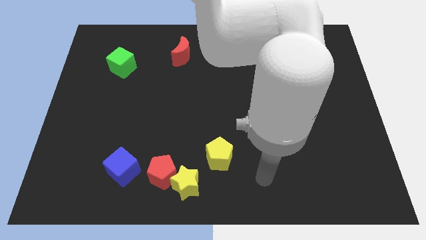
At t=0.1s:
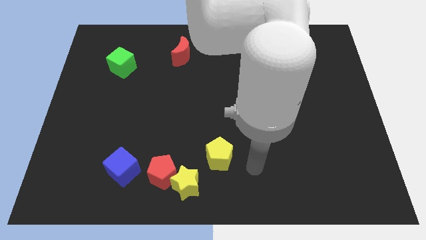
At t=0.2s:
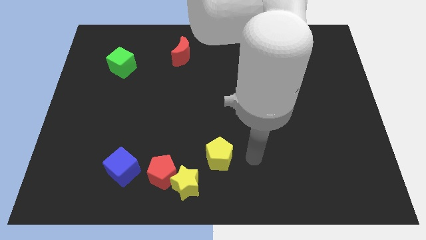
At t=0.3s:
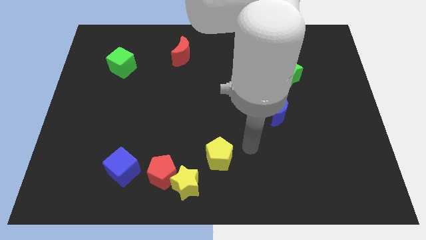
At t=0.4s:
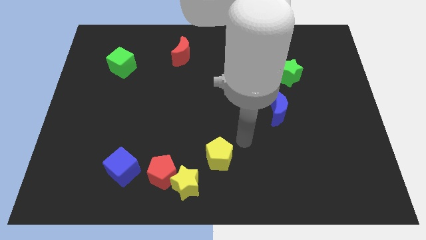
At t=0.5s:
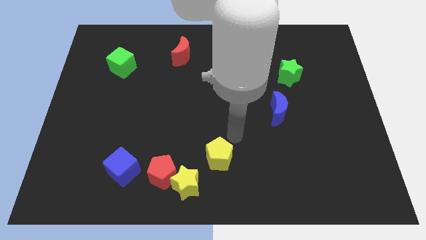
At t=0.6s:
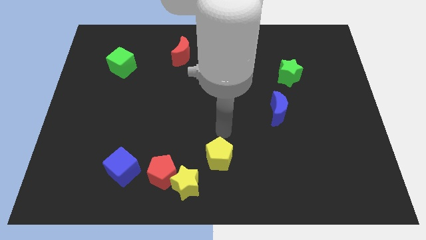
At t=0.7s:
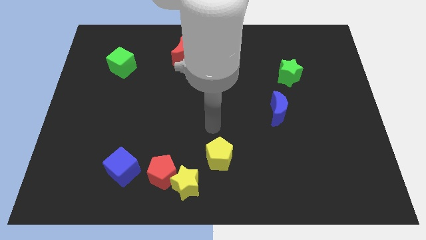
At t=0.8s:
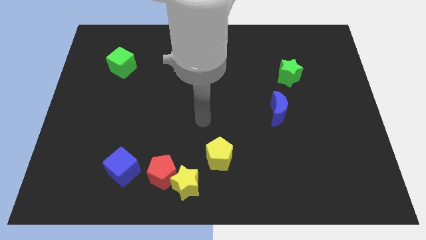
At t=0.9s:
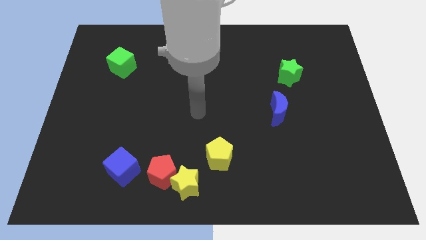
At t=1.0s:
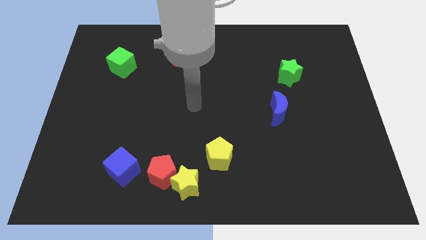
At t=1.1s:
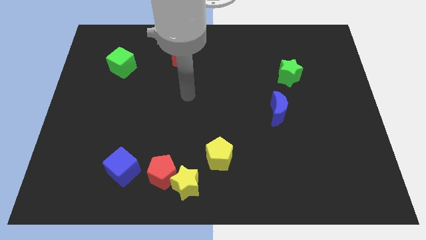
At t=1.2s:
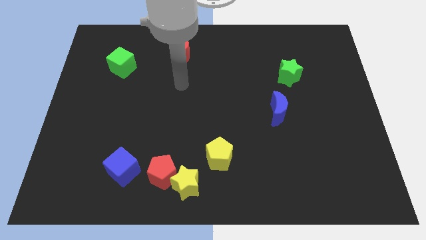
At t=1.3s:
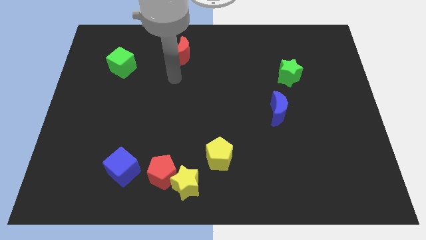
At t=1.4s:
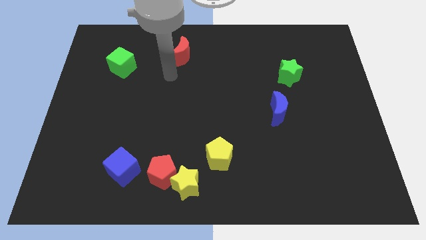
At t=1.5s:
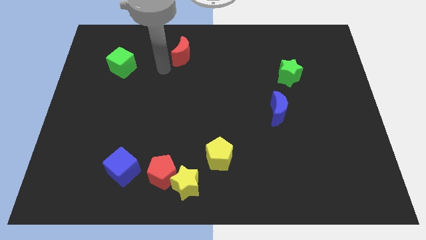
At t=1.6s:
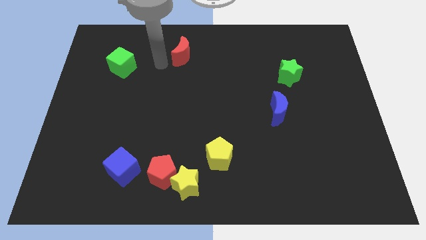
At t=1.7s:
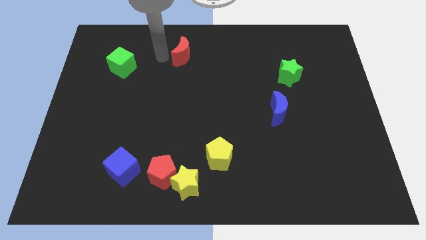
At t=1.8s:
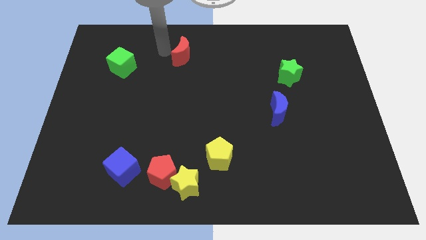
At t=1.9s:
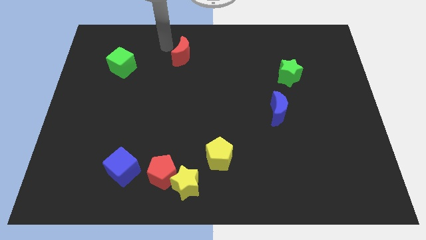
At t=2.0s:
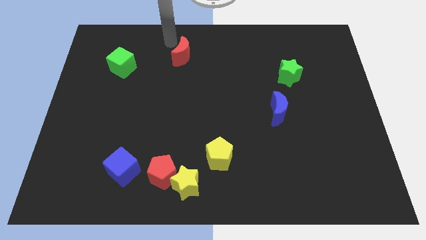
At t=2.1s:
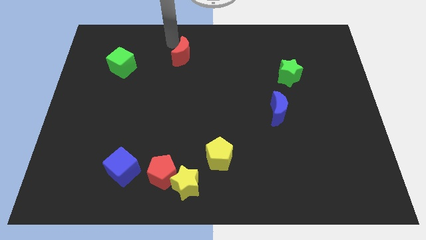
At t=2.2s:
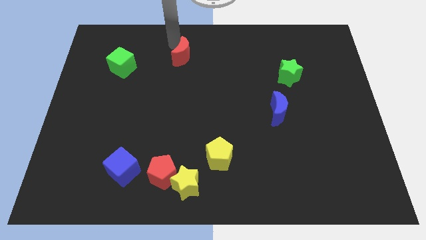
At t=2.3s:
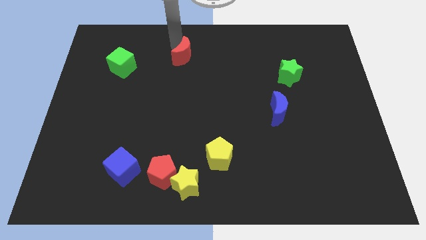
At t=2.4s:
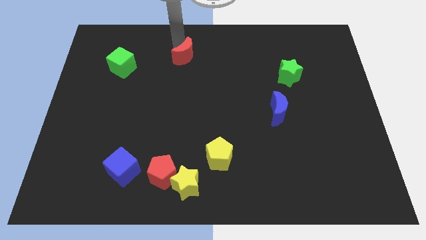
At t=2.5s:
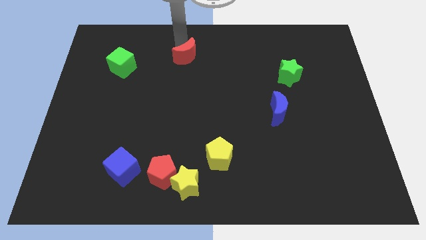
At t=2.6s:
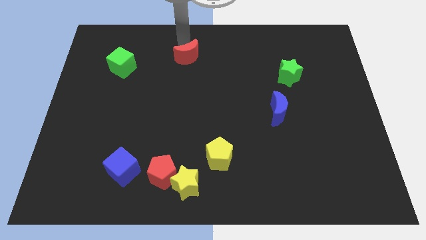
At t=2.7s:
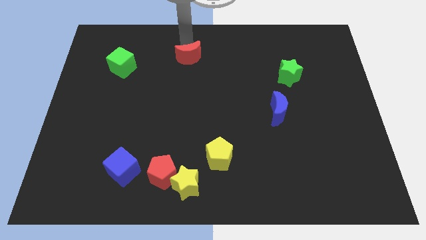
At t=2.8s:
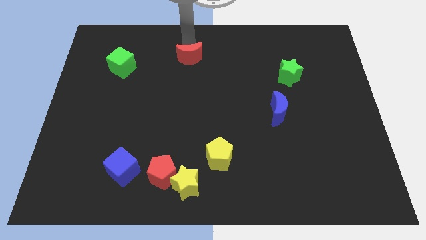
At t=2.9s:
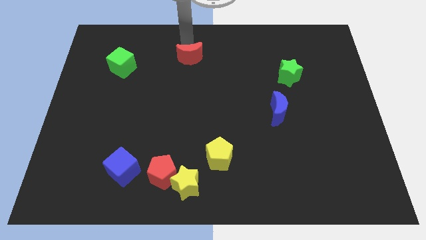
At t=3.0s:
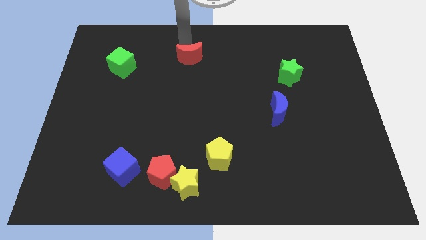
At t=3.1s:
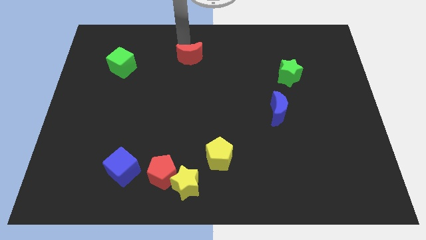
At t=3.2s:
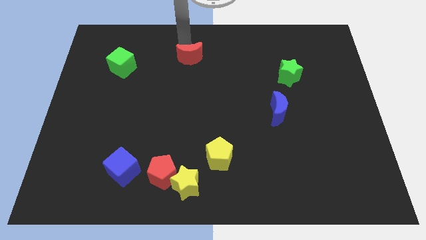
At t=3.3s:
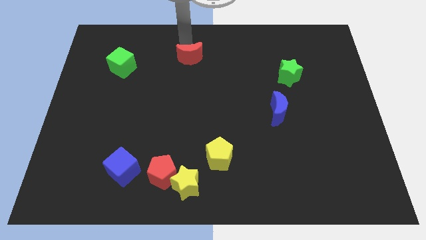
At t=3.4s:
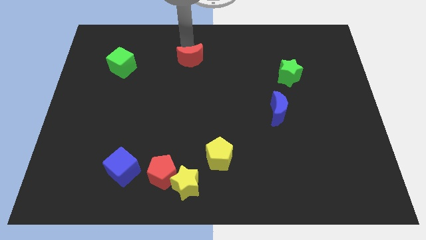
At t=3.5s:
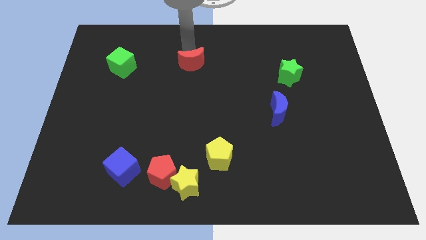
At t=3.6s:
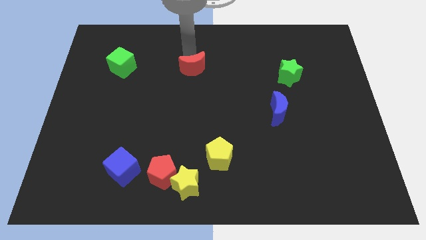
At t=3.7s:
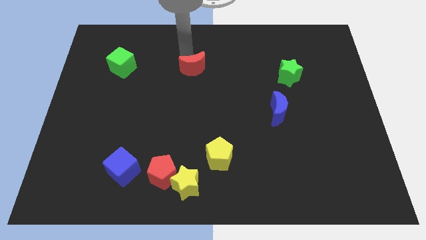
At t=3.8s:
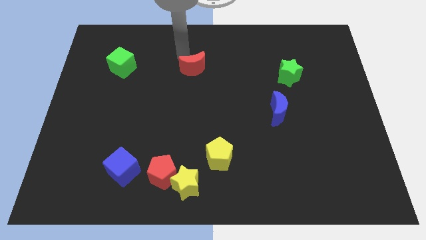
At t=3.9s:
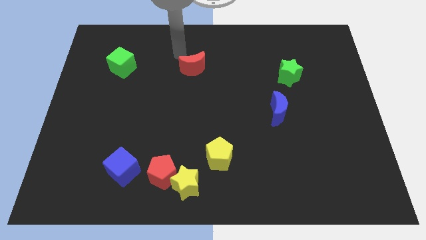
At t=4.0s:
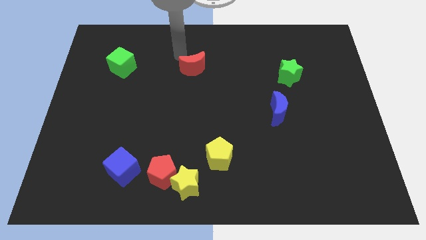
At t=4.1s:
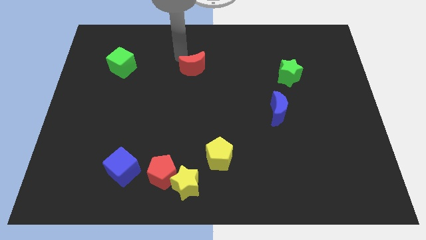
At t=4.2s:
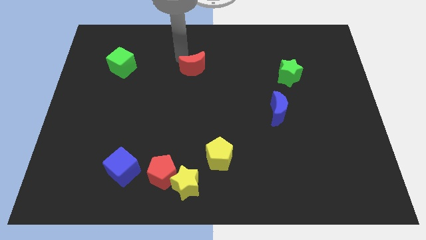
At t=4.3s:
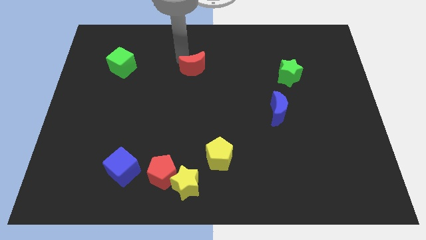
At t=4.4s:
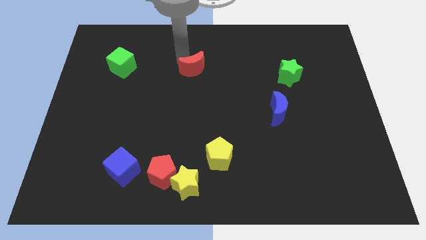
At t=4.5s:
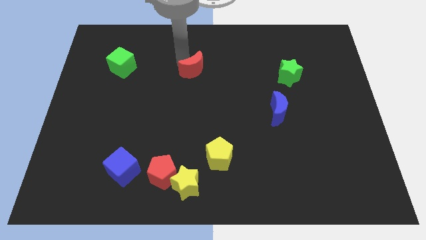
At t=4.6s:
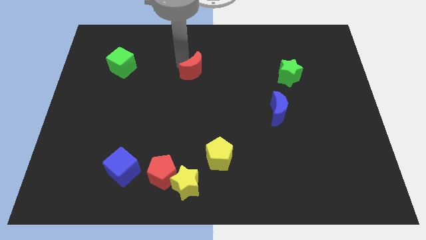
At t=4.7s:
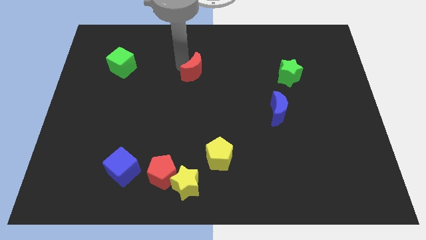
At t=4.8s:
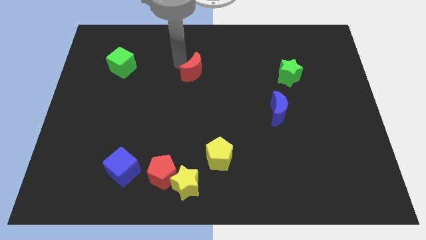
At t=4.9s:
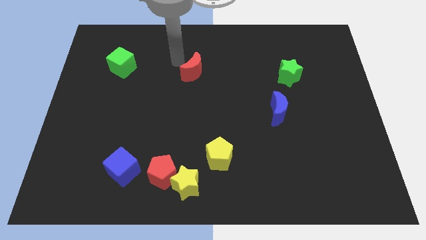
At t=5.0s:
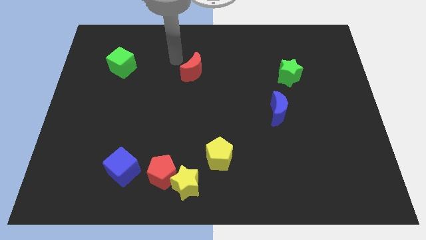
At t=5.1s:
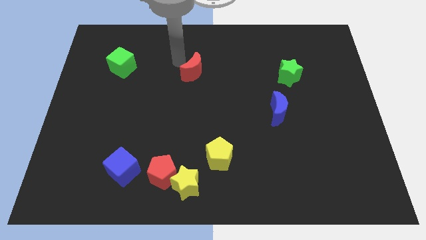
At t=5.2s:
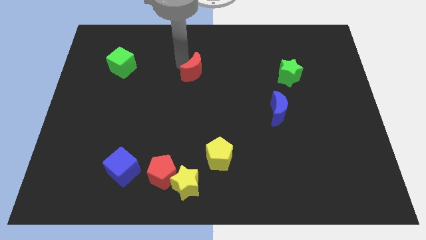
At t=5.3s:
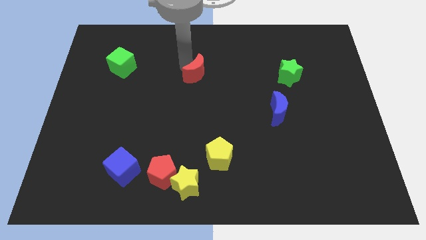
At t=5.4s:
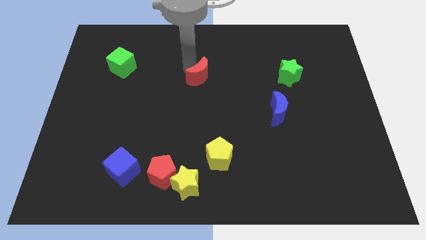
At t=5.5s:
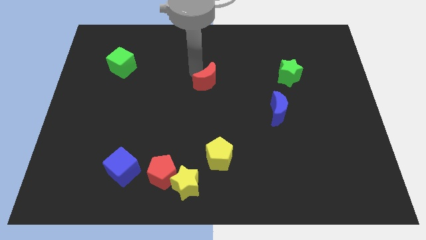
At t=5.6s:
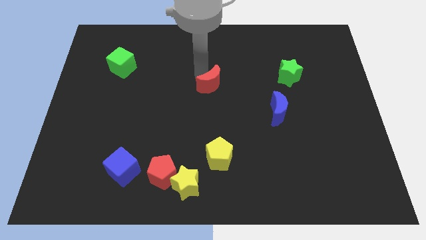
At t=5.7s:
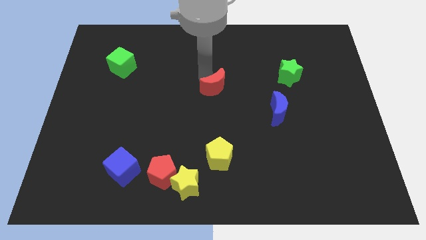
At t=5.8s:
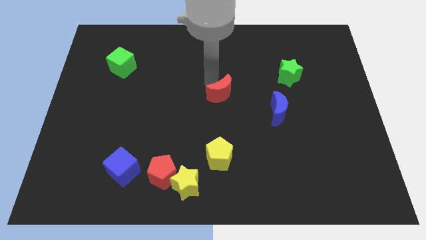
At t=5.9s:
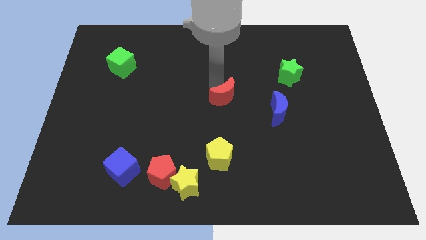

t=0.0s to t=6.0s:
slide the red moon left of the blue moon

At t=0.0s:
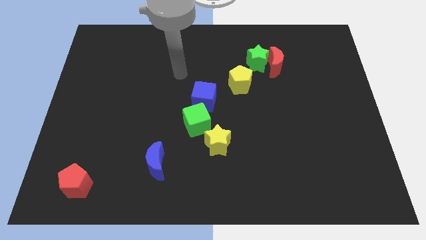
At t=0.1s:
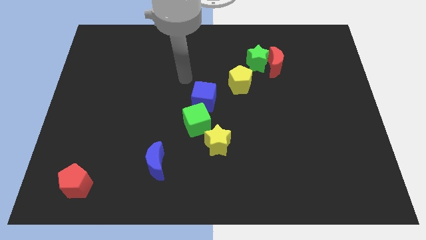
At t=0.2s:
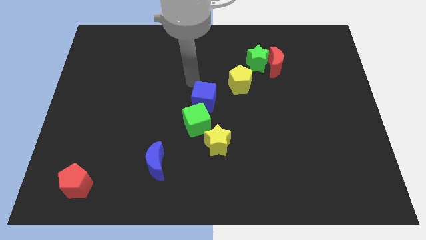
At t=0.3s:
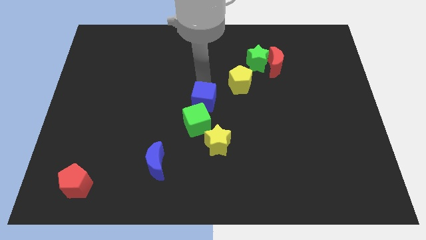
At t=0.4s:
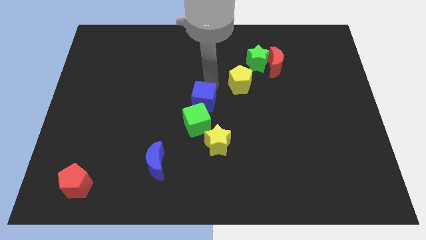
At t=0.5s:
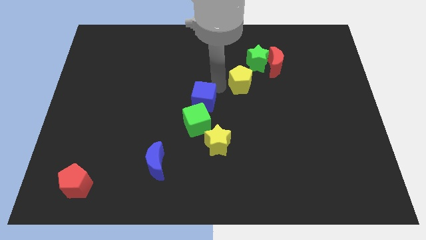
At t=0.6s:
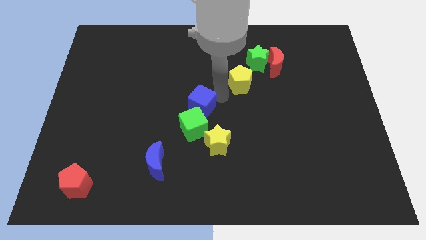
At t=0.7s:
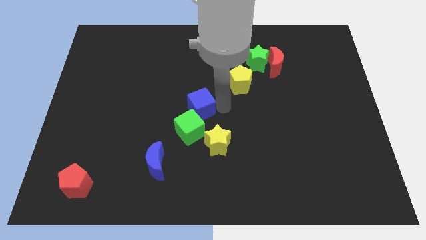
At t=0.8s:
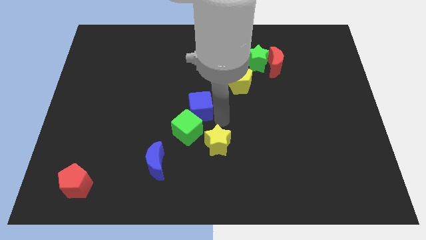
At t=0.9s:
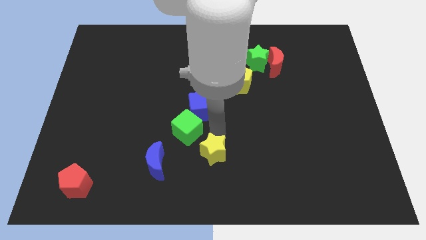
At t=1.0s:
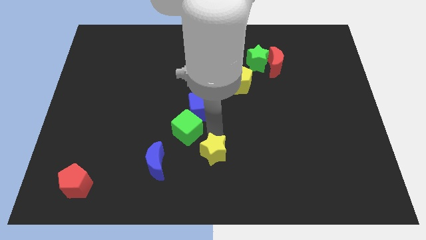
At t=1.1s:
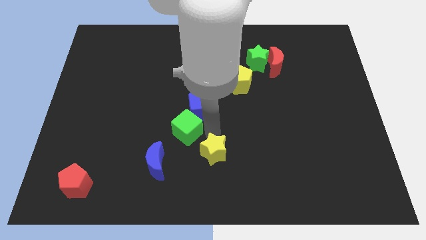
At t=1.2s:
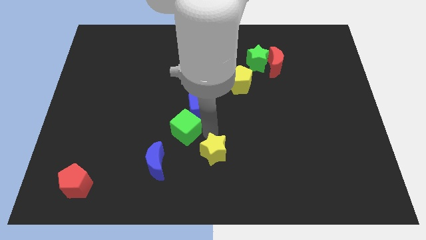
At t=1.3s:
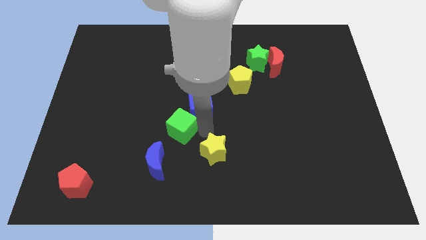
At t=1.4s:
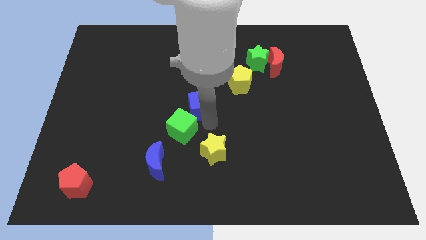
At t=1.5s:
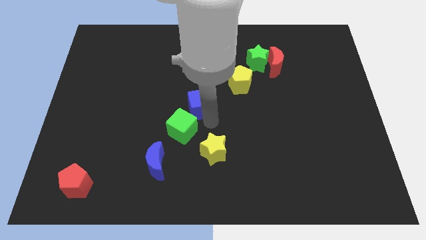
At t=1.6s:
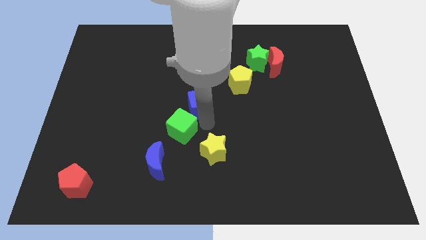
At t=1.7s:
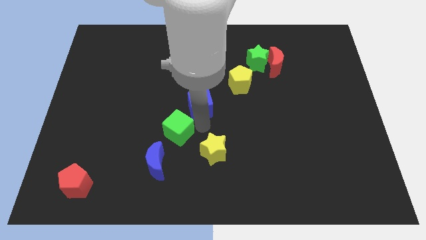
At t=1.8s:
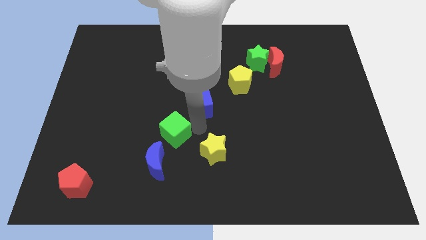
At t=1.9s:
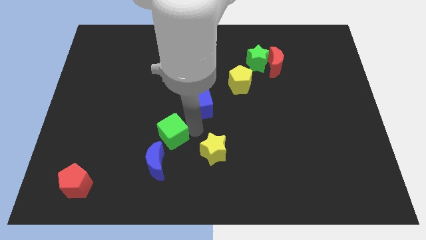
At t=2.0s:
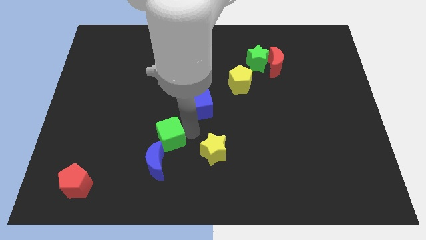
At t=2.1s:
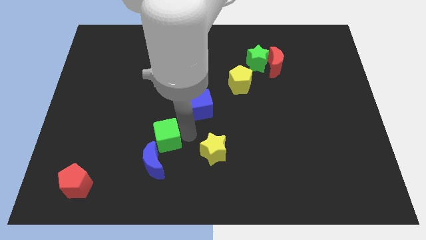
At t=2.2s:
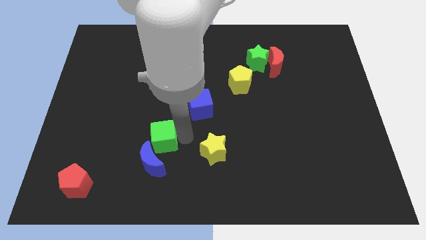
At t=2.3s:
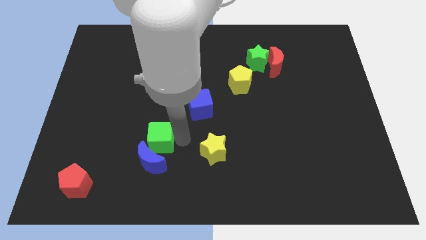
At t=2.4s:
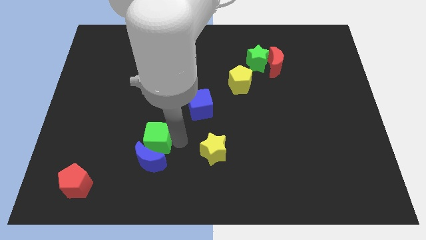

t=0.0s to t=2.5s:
put the green cube to the top left side of the blue moon
